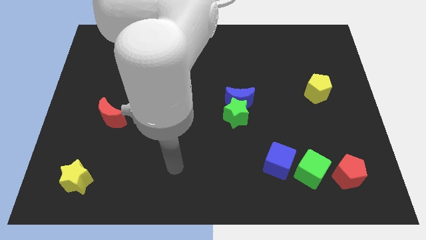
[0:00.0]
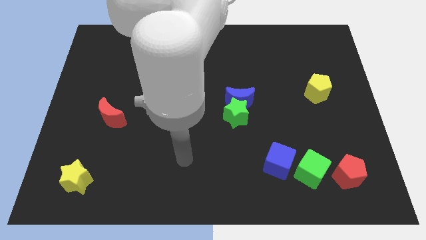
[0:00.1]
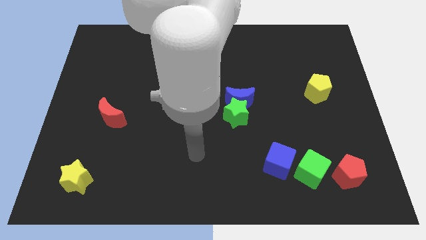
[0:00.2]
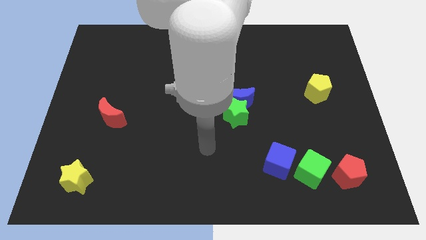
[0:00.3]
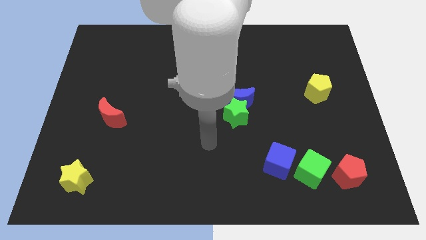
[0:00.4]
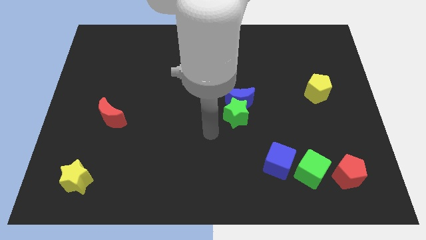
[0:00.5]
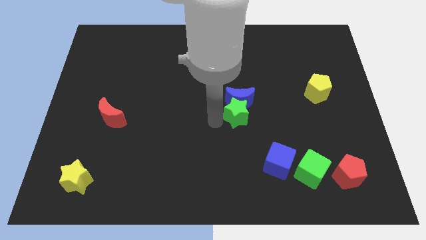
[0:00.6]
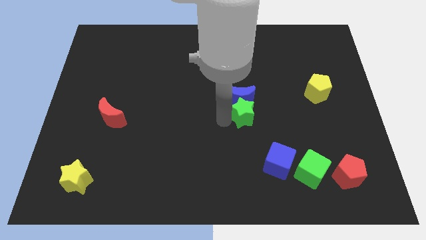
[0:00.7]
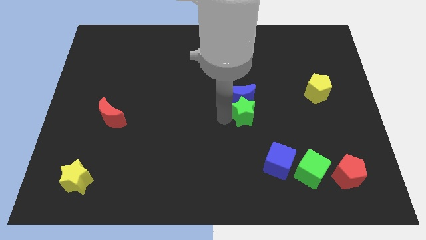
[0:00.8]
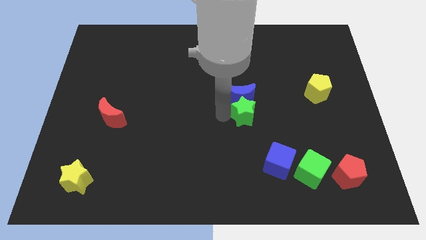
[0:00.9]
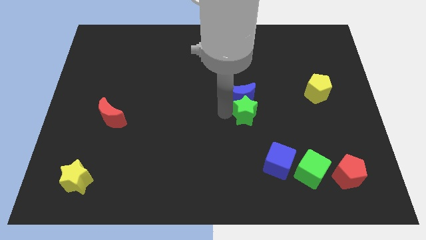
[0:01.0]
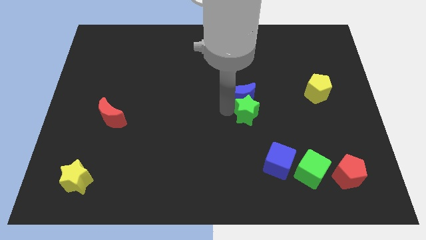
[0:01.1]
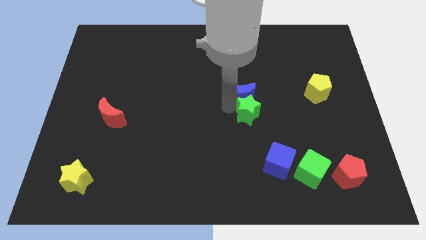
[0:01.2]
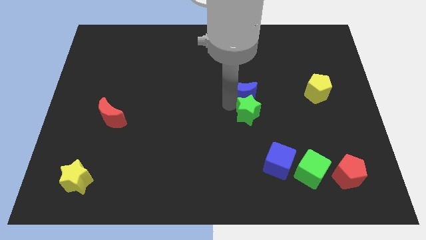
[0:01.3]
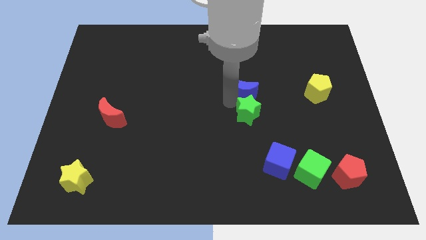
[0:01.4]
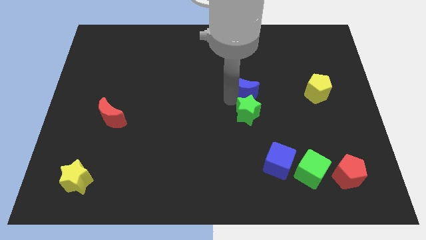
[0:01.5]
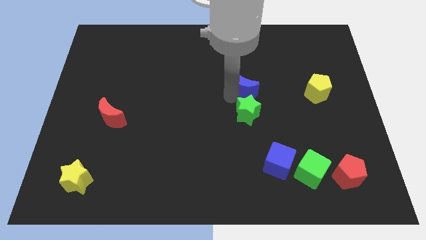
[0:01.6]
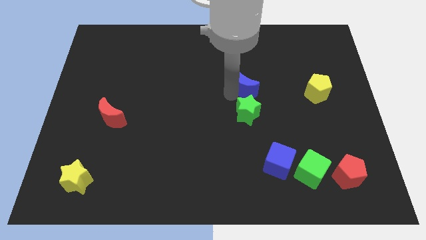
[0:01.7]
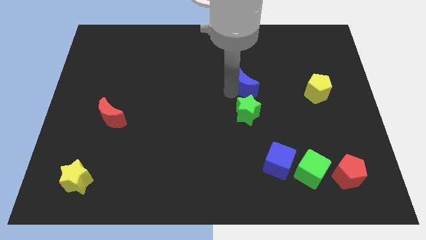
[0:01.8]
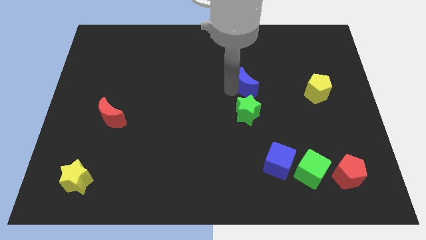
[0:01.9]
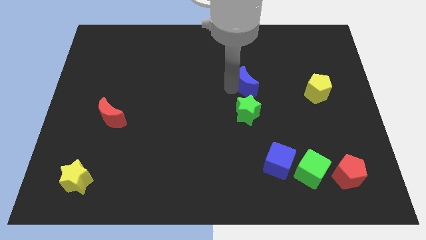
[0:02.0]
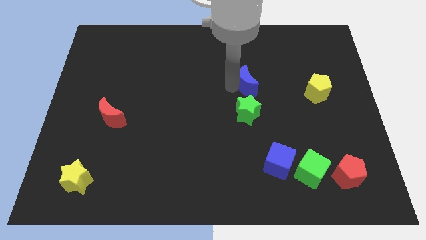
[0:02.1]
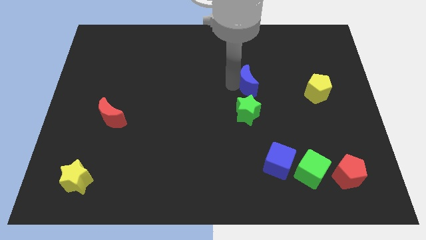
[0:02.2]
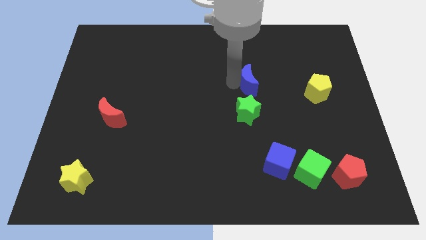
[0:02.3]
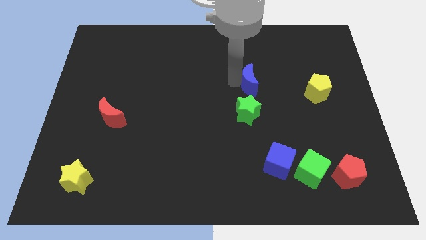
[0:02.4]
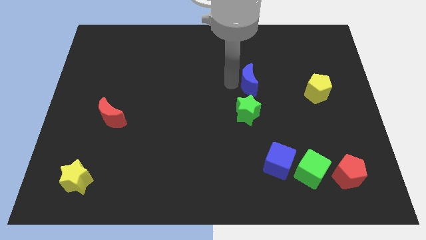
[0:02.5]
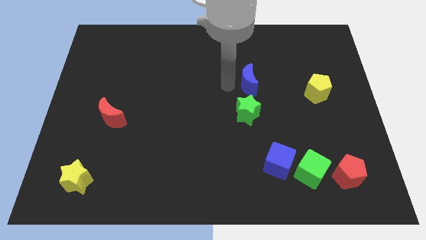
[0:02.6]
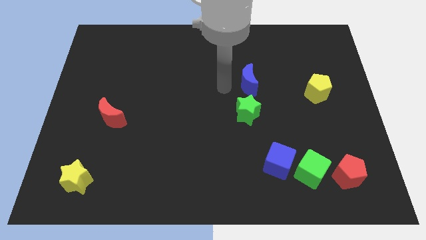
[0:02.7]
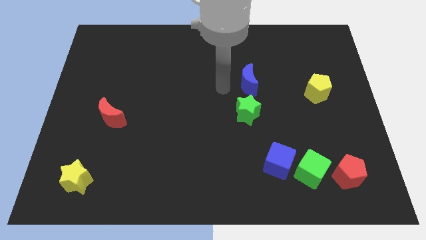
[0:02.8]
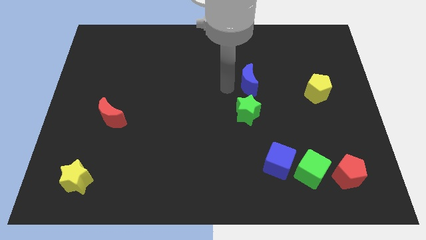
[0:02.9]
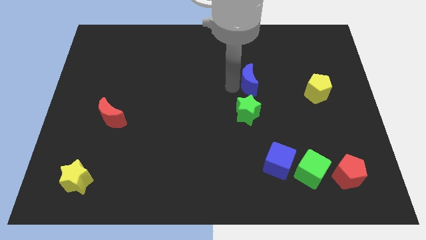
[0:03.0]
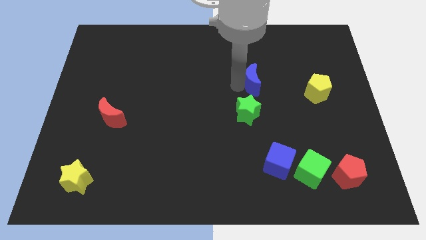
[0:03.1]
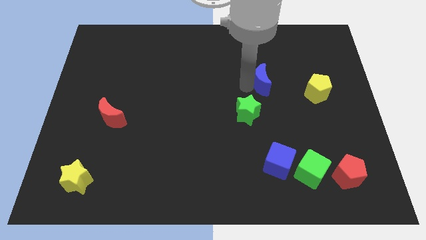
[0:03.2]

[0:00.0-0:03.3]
slightly slide the blue moon diagonally upwards and to the right

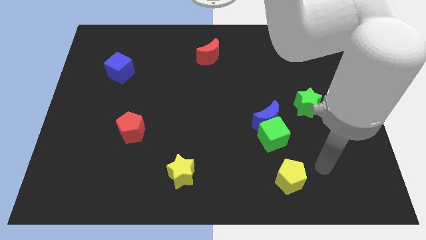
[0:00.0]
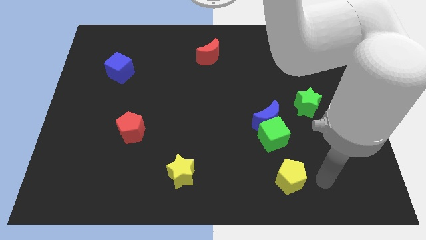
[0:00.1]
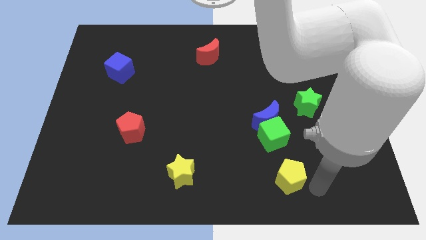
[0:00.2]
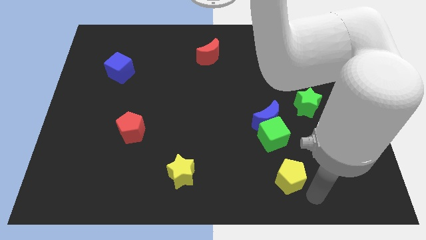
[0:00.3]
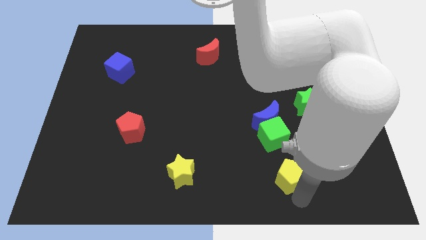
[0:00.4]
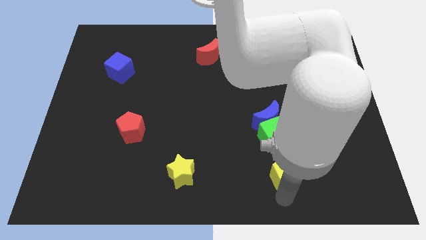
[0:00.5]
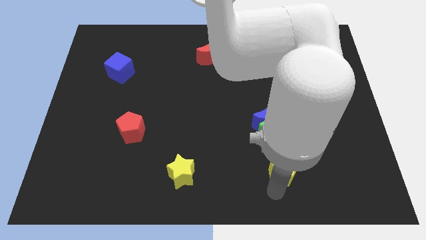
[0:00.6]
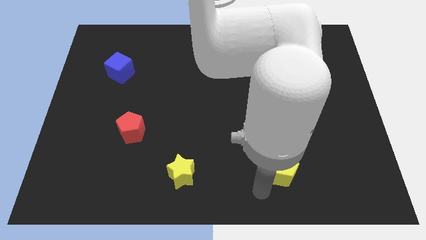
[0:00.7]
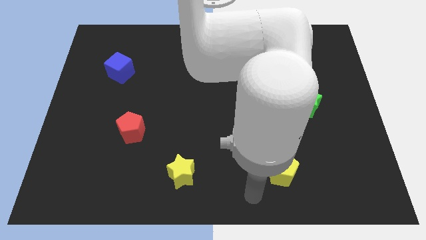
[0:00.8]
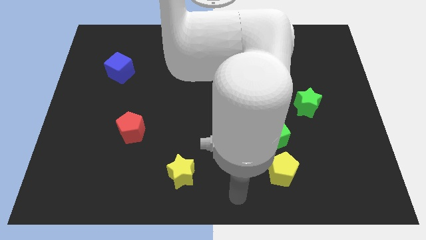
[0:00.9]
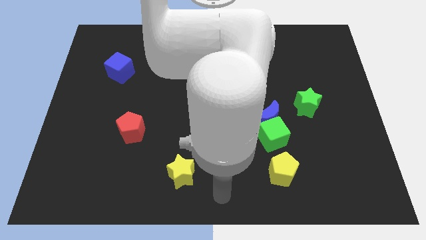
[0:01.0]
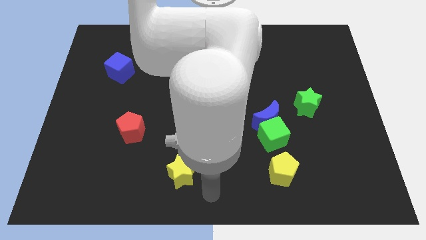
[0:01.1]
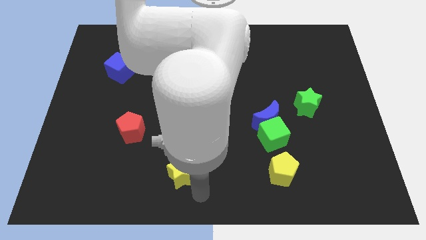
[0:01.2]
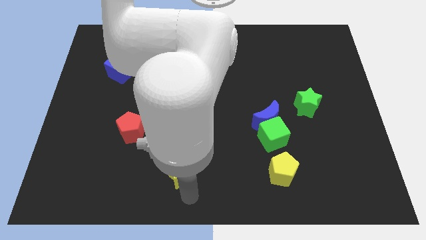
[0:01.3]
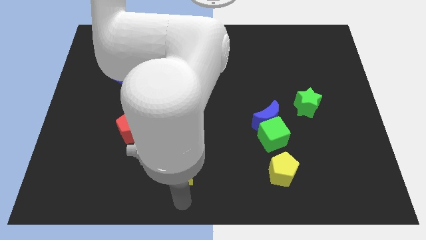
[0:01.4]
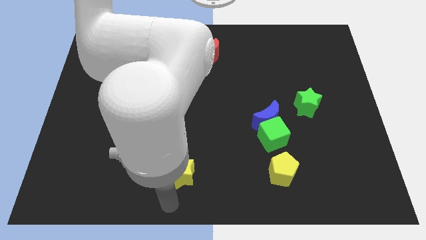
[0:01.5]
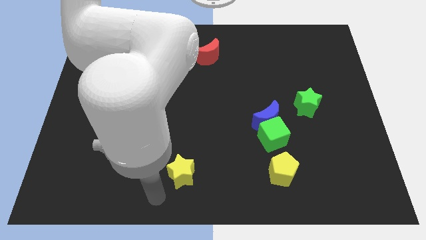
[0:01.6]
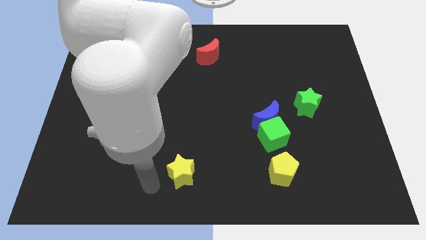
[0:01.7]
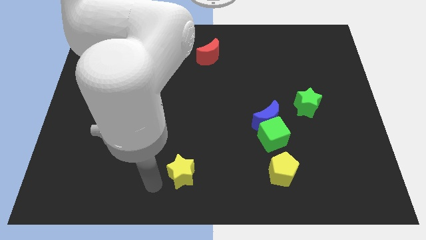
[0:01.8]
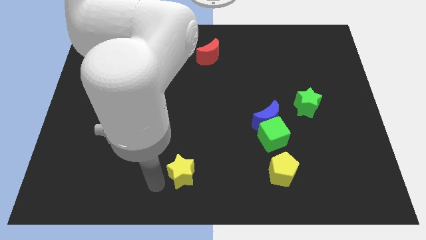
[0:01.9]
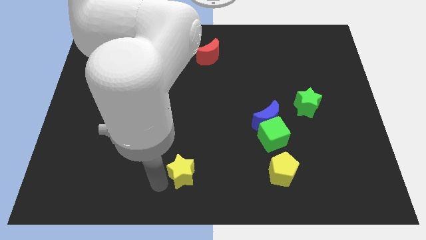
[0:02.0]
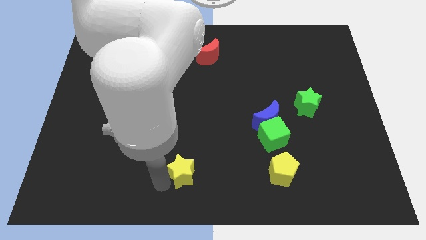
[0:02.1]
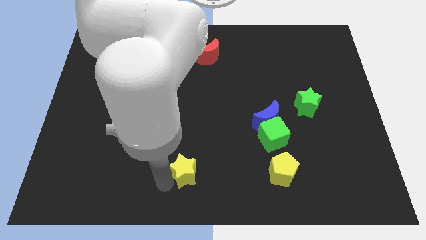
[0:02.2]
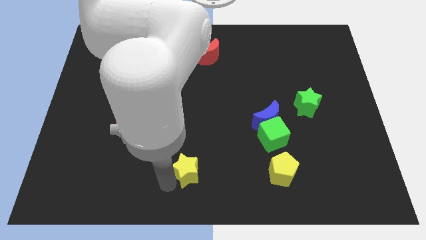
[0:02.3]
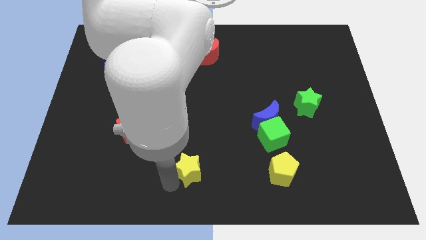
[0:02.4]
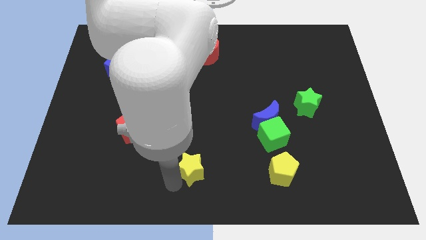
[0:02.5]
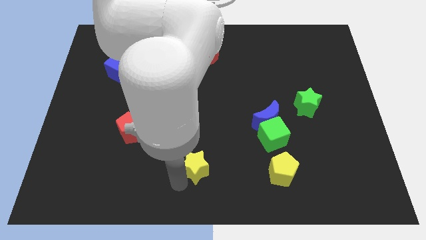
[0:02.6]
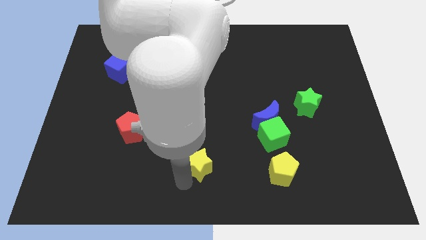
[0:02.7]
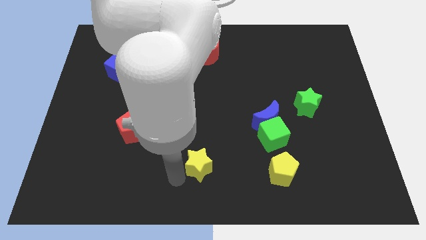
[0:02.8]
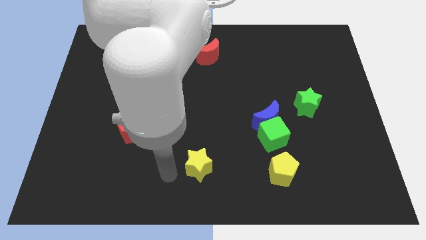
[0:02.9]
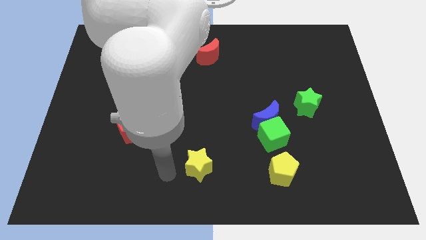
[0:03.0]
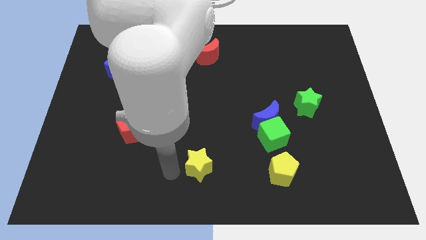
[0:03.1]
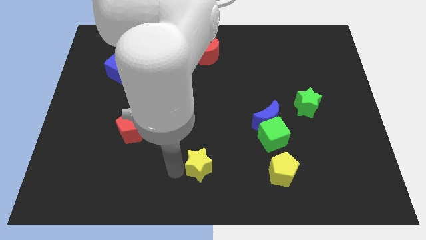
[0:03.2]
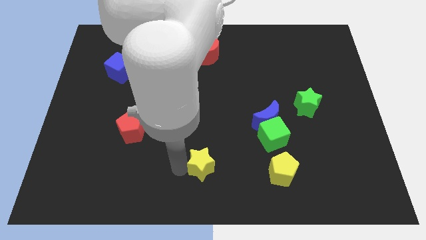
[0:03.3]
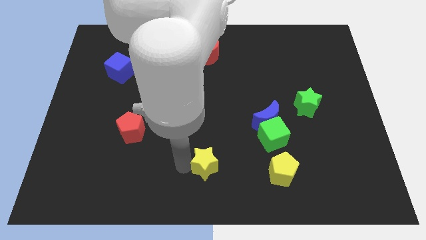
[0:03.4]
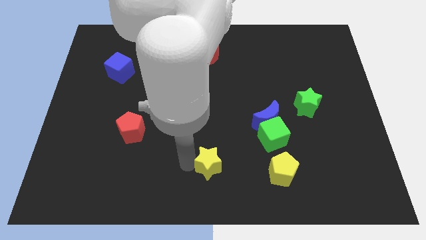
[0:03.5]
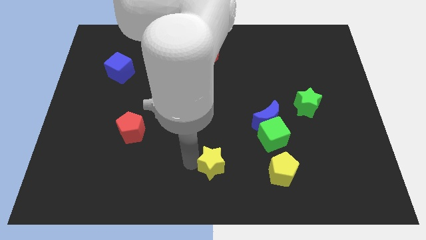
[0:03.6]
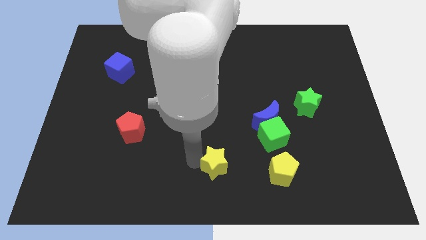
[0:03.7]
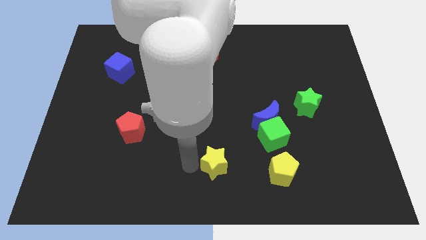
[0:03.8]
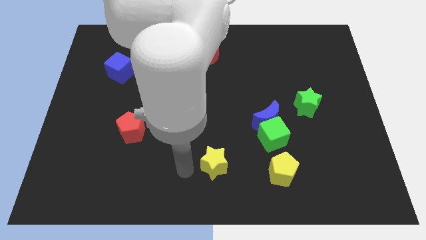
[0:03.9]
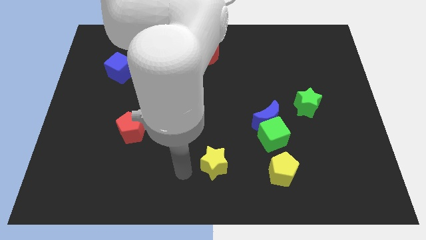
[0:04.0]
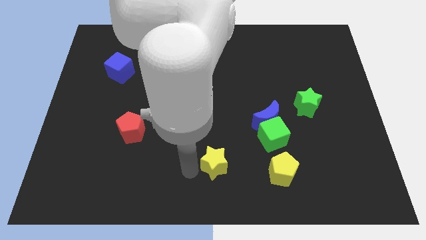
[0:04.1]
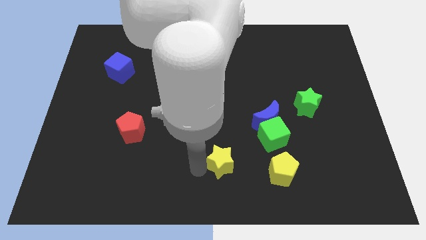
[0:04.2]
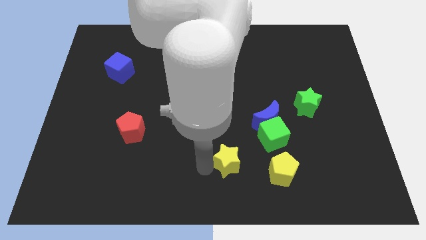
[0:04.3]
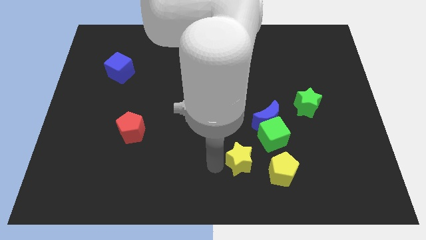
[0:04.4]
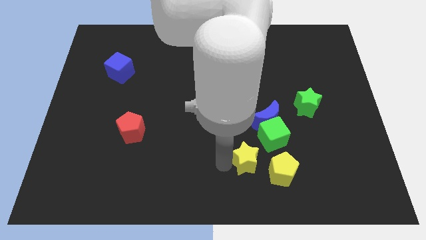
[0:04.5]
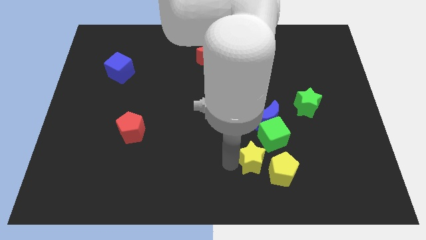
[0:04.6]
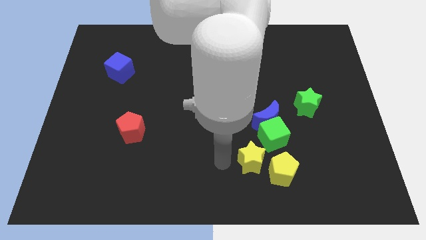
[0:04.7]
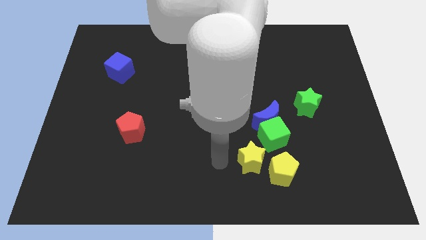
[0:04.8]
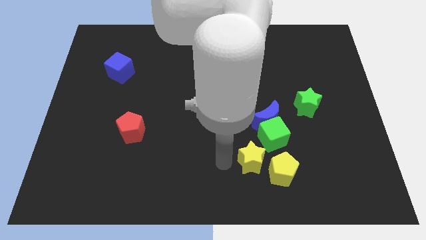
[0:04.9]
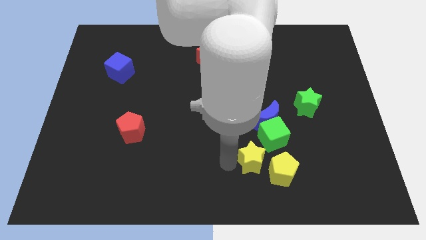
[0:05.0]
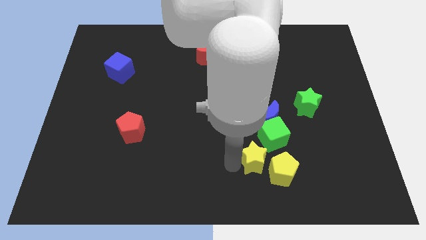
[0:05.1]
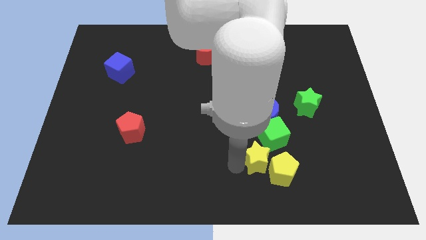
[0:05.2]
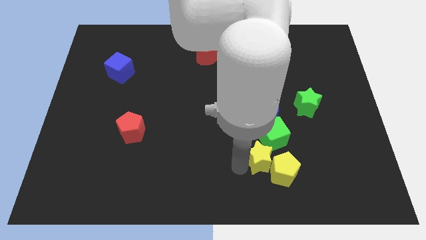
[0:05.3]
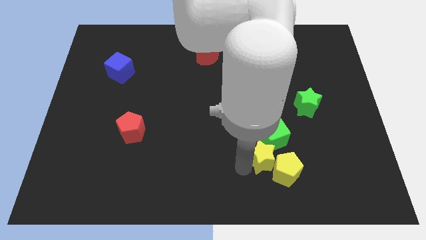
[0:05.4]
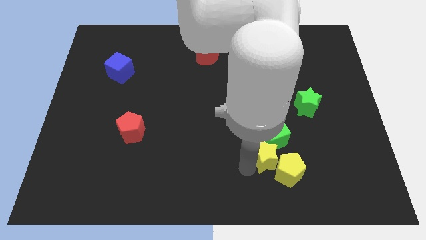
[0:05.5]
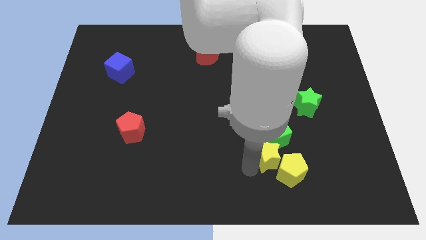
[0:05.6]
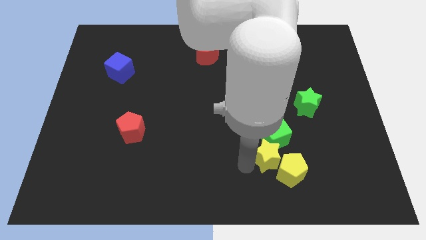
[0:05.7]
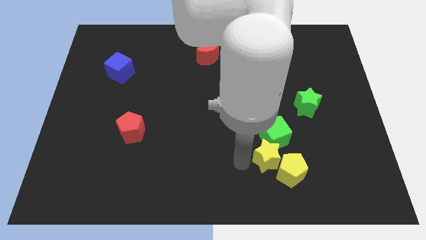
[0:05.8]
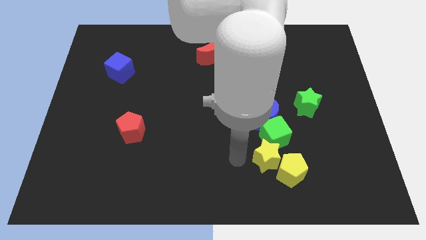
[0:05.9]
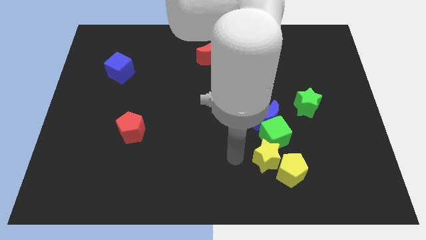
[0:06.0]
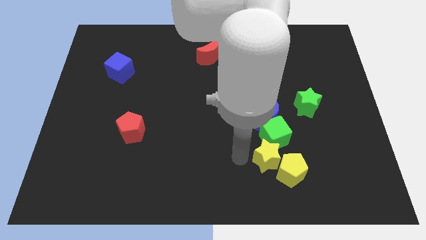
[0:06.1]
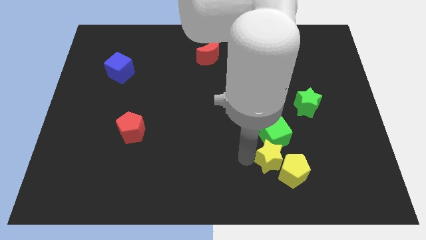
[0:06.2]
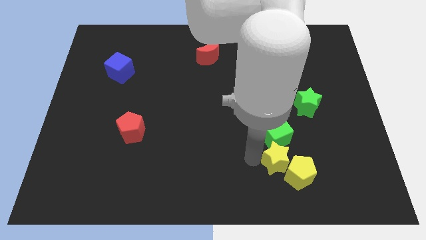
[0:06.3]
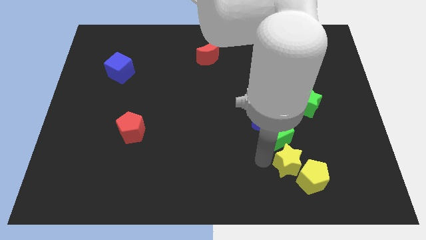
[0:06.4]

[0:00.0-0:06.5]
push the yellow star to the right
